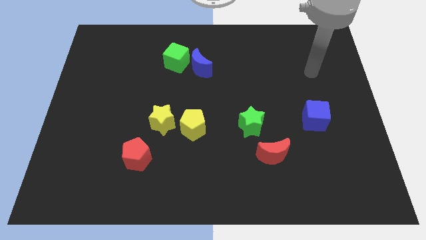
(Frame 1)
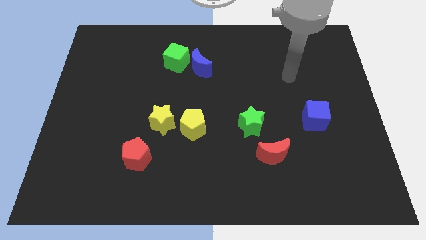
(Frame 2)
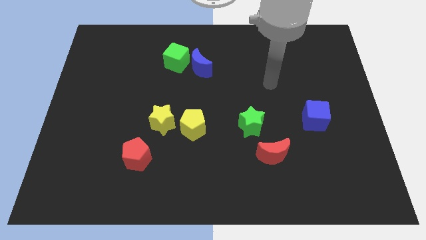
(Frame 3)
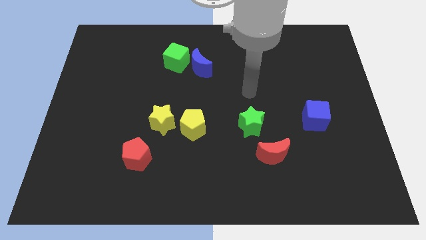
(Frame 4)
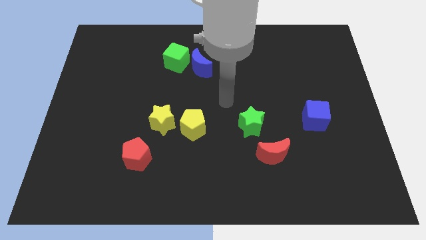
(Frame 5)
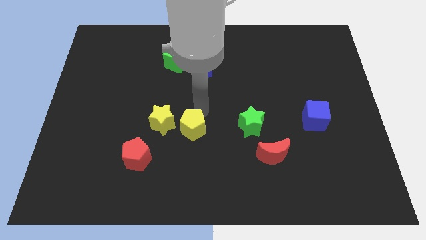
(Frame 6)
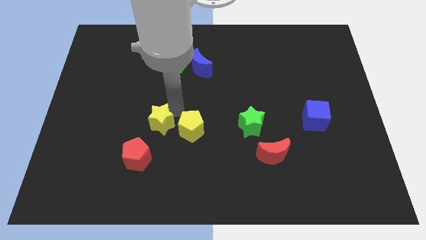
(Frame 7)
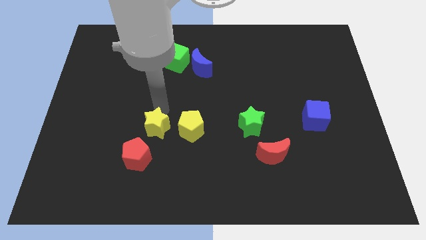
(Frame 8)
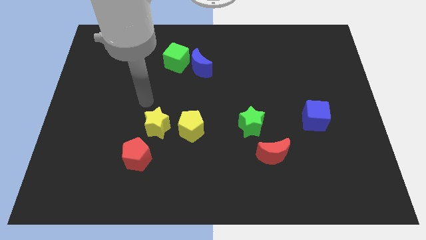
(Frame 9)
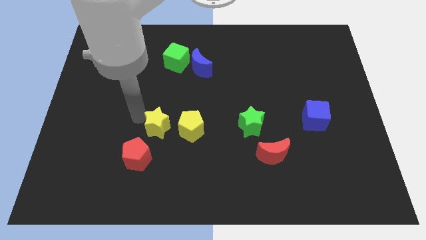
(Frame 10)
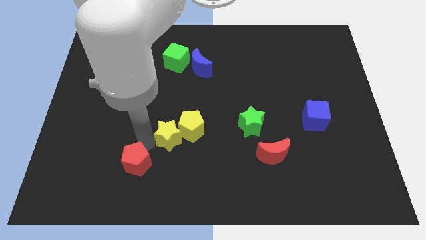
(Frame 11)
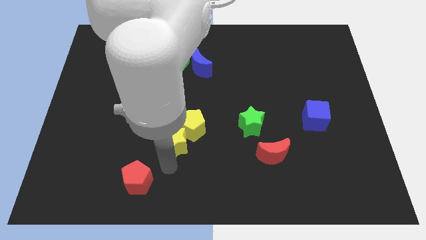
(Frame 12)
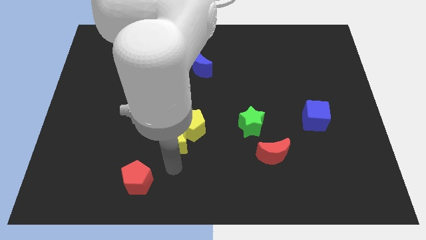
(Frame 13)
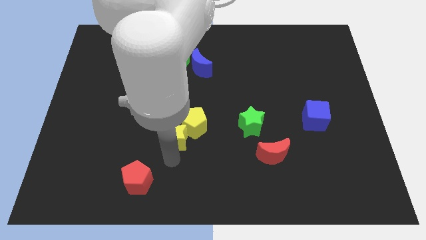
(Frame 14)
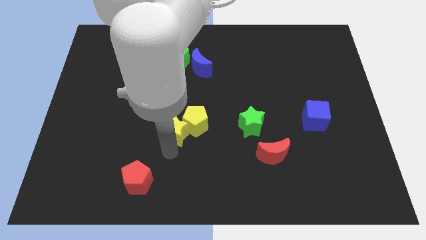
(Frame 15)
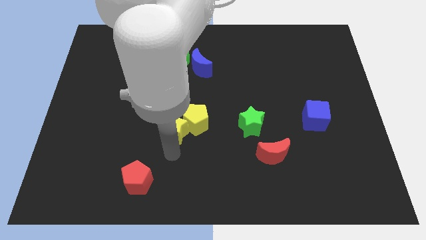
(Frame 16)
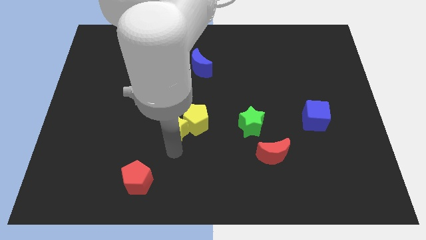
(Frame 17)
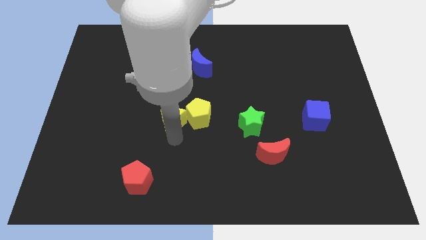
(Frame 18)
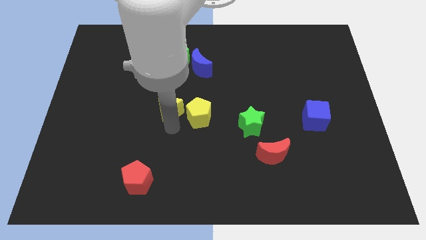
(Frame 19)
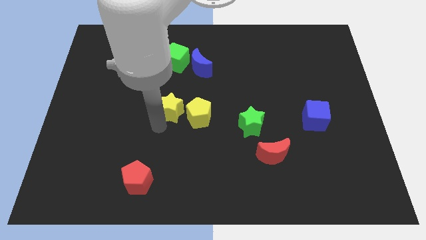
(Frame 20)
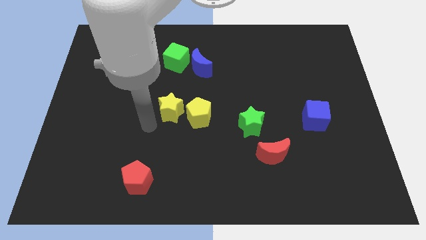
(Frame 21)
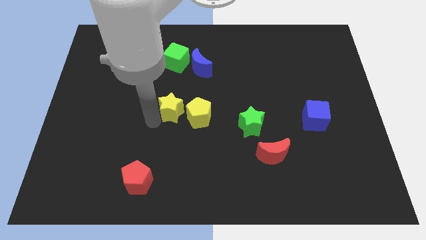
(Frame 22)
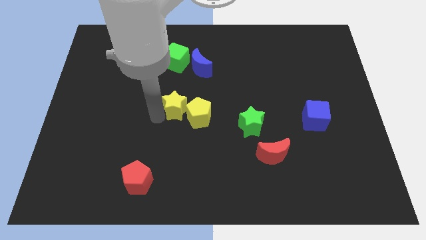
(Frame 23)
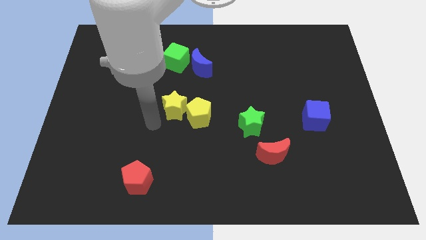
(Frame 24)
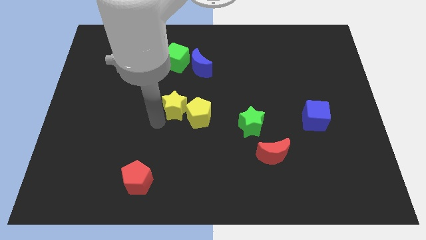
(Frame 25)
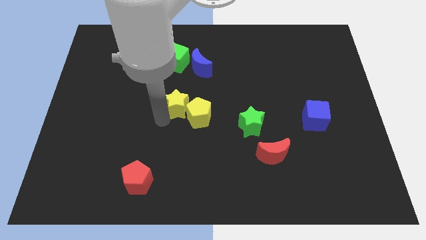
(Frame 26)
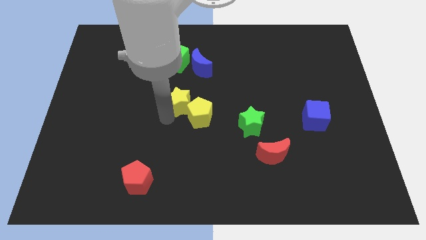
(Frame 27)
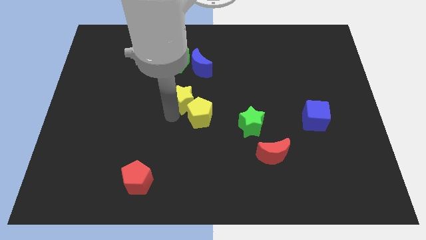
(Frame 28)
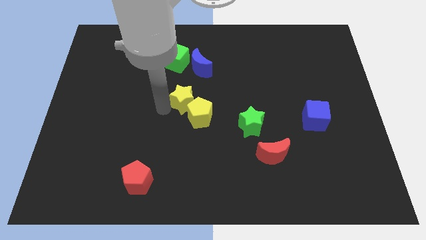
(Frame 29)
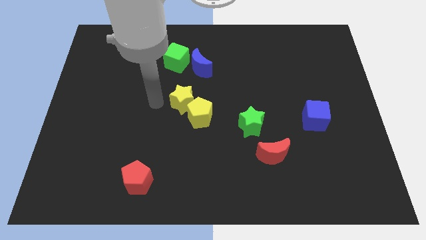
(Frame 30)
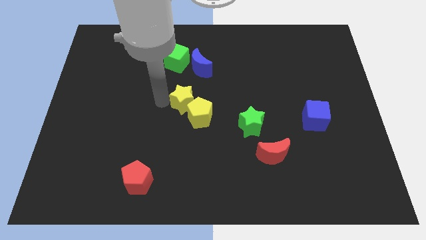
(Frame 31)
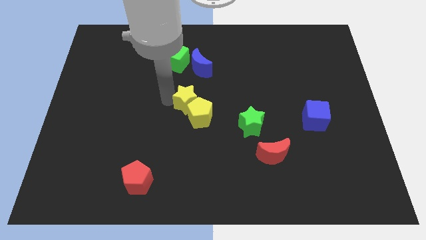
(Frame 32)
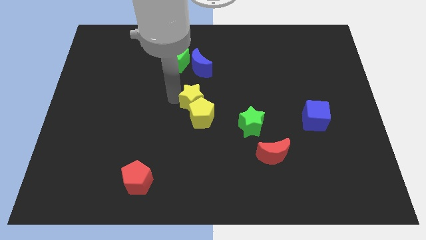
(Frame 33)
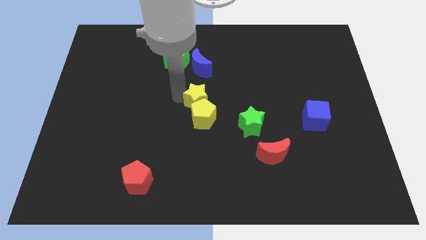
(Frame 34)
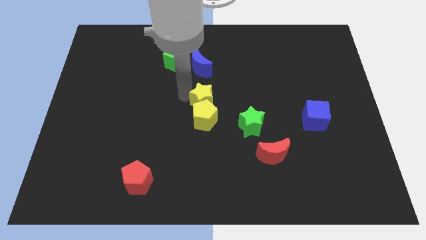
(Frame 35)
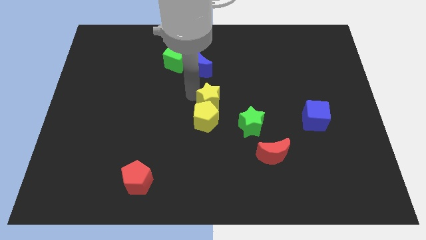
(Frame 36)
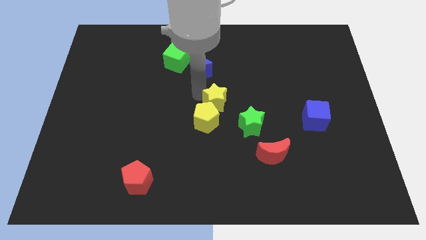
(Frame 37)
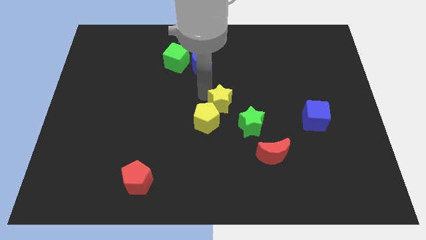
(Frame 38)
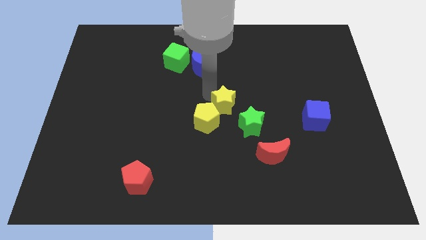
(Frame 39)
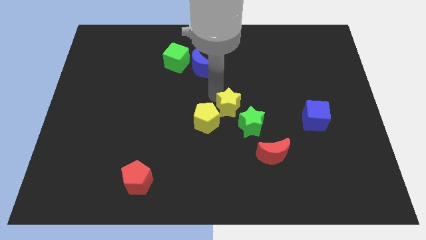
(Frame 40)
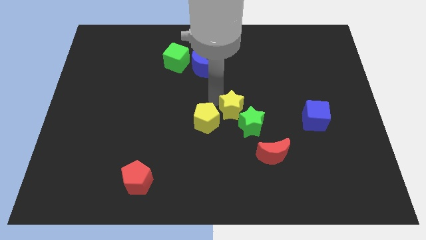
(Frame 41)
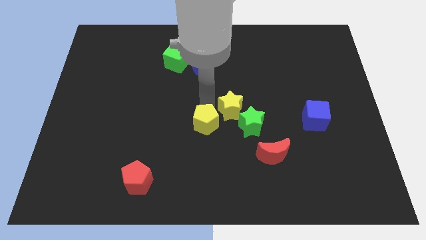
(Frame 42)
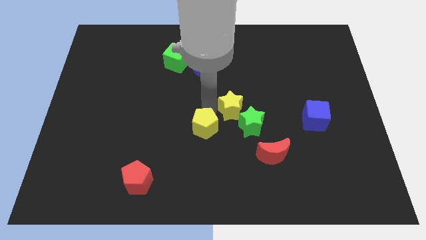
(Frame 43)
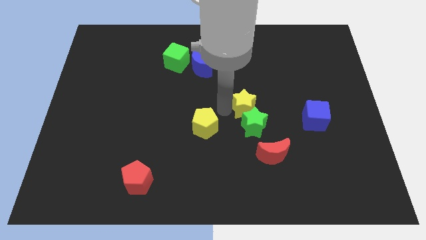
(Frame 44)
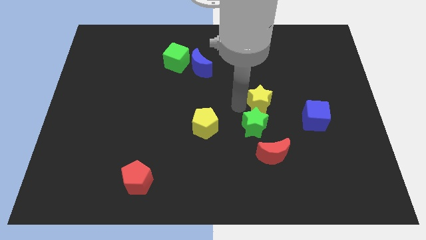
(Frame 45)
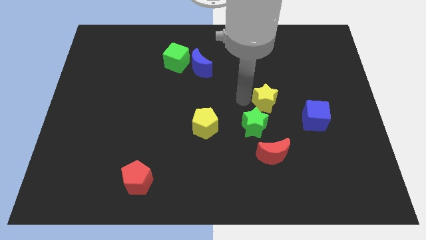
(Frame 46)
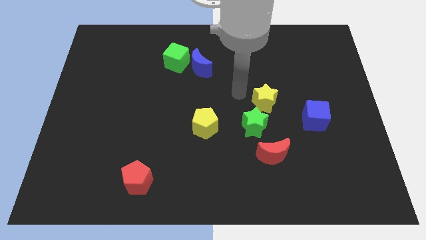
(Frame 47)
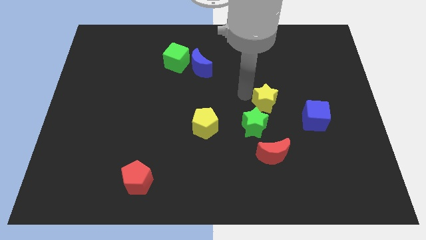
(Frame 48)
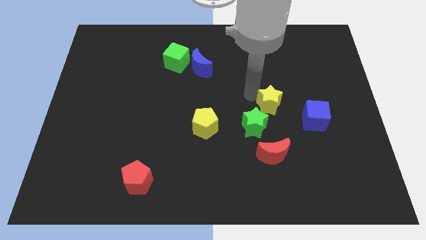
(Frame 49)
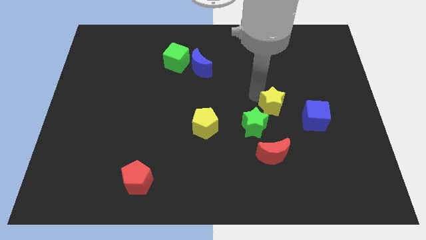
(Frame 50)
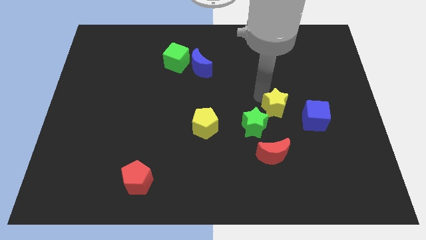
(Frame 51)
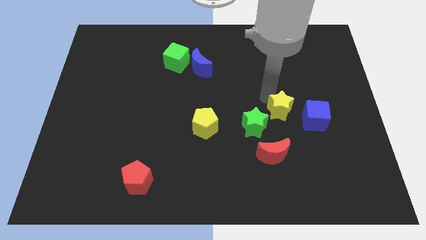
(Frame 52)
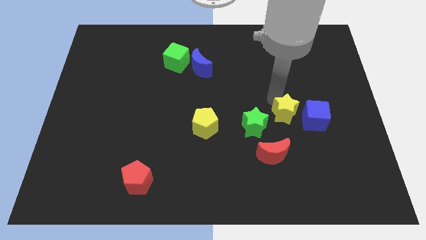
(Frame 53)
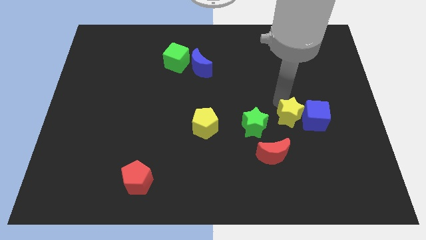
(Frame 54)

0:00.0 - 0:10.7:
slide the yellow star next to the blue cube

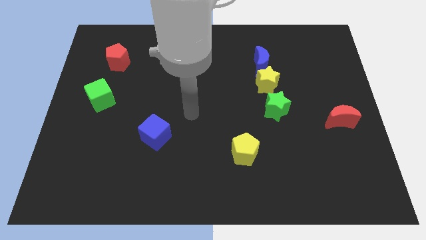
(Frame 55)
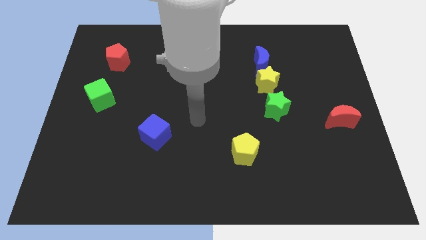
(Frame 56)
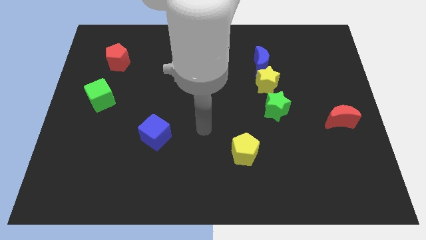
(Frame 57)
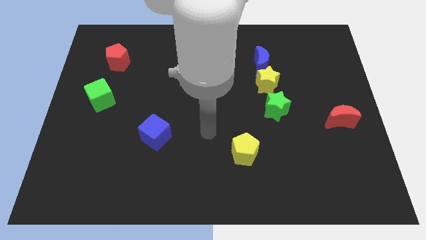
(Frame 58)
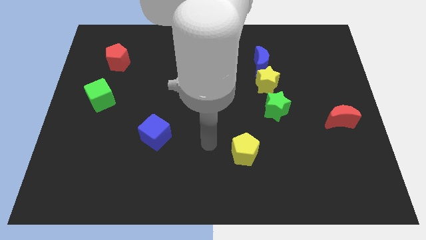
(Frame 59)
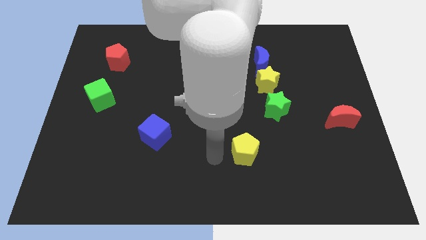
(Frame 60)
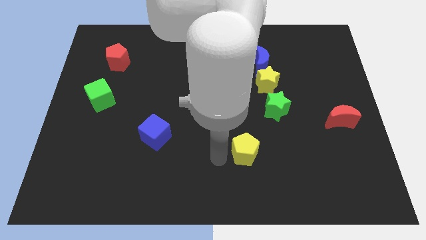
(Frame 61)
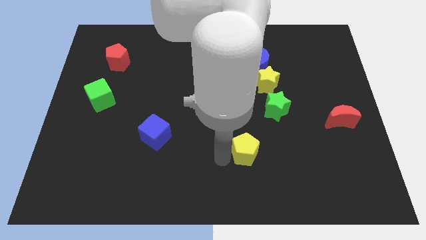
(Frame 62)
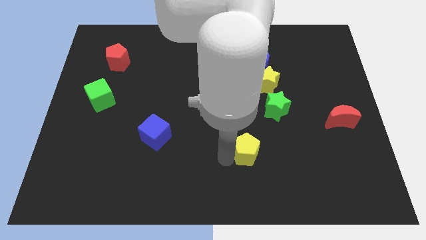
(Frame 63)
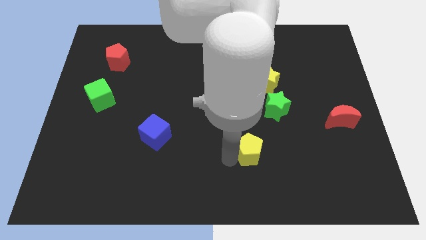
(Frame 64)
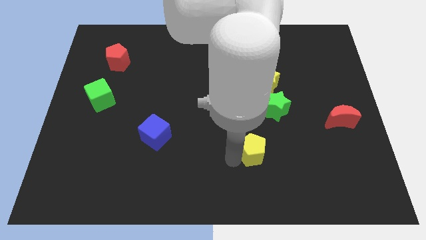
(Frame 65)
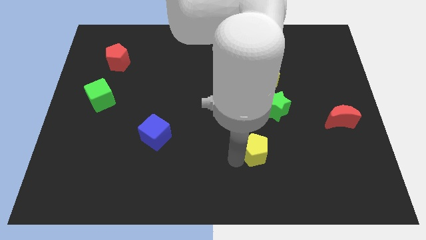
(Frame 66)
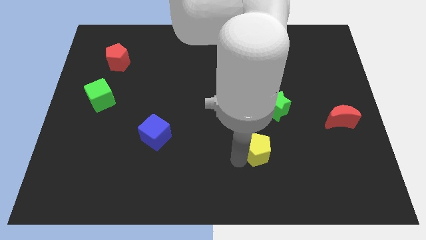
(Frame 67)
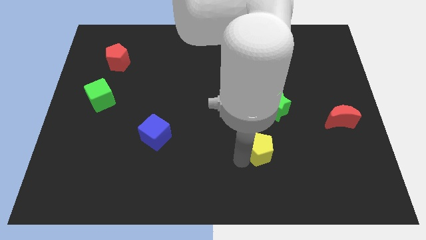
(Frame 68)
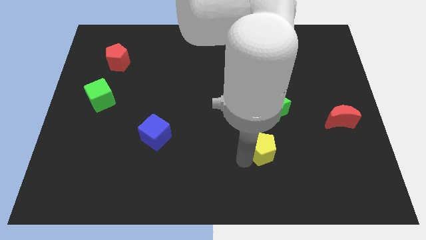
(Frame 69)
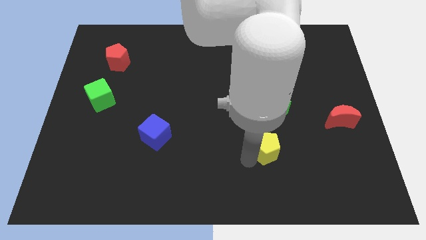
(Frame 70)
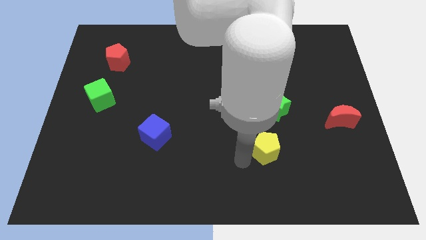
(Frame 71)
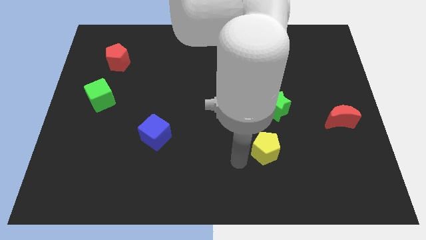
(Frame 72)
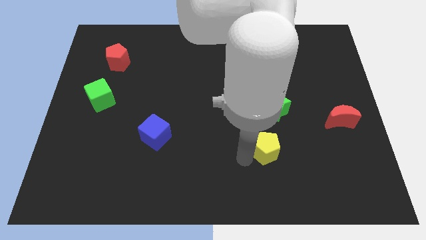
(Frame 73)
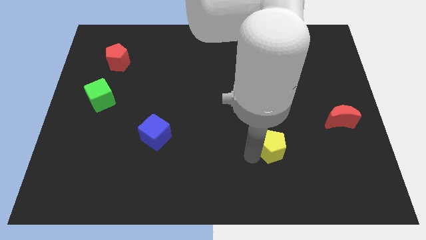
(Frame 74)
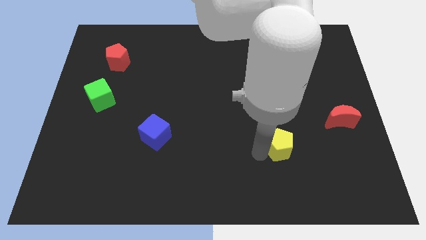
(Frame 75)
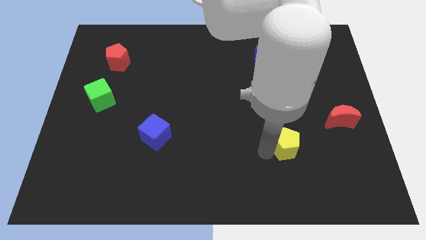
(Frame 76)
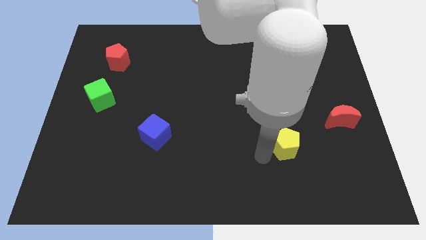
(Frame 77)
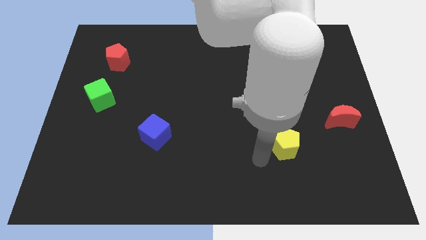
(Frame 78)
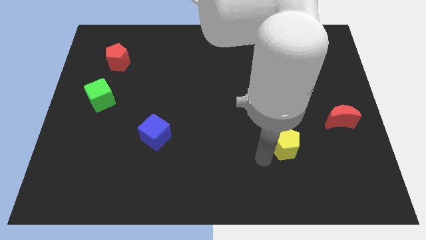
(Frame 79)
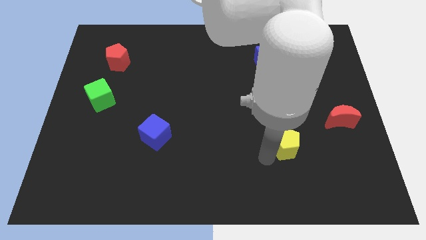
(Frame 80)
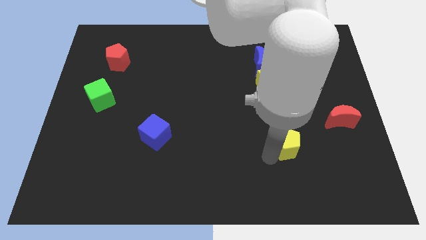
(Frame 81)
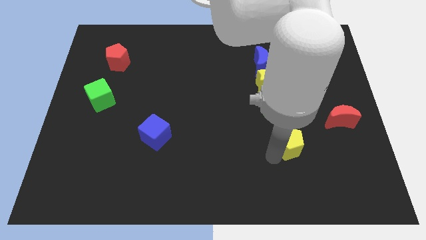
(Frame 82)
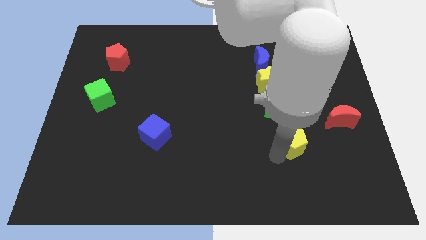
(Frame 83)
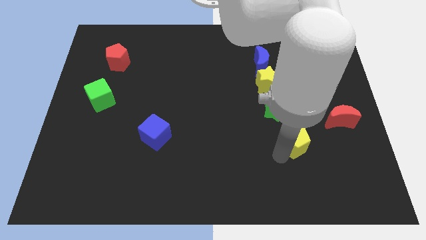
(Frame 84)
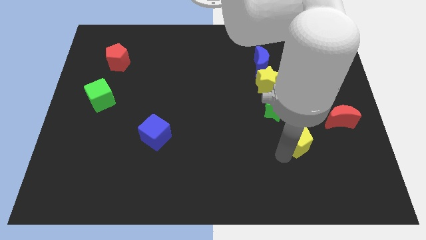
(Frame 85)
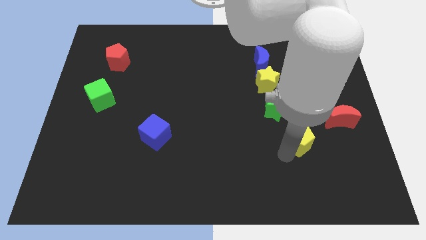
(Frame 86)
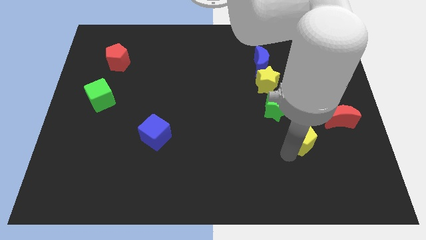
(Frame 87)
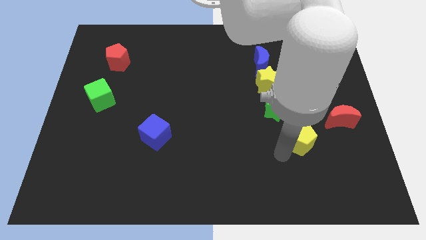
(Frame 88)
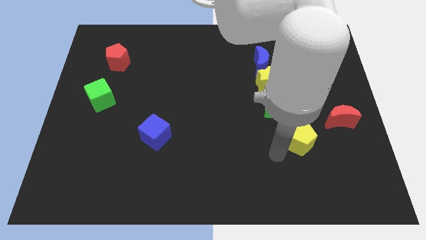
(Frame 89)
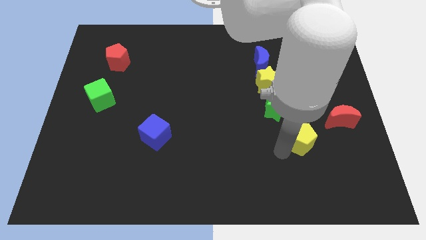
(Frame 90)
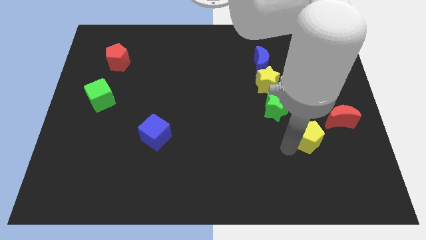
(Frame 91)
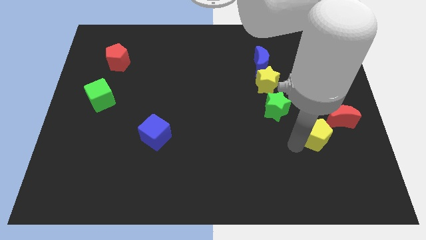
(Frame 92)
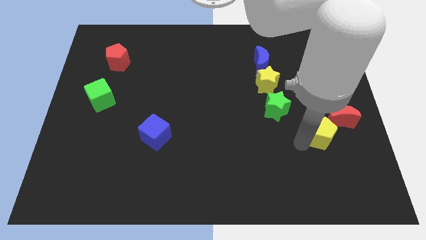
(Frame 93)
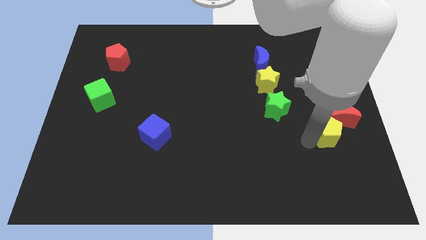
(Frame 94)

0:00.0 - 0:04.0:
put the yellow pentagon close to the red moon
